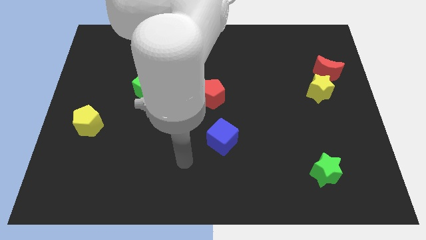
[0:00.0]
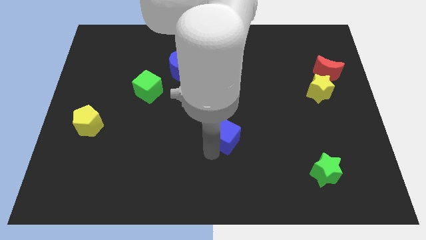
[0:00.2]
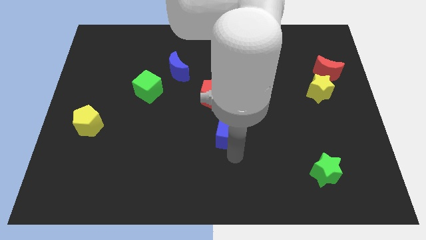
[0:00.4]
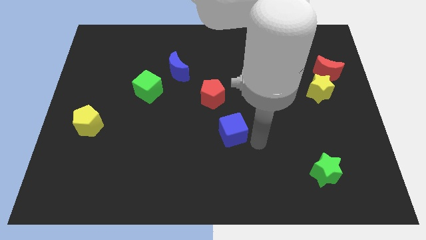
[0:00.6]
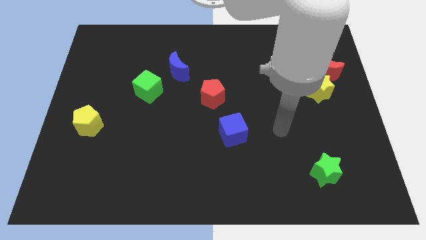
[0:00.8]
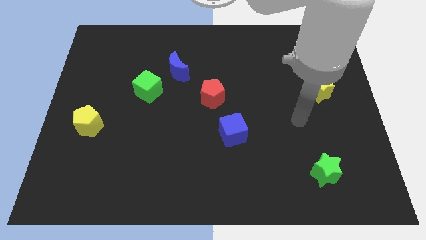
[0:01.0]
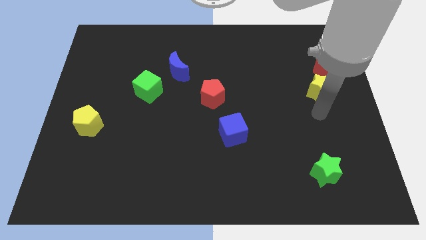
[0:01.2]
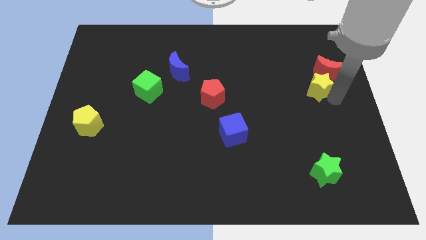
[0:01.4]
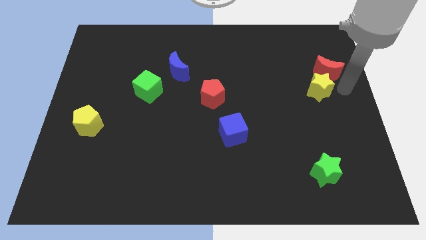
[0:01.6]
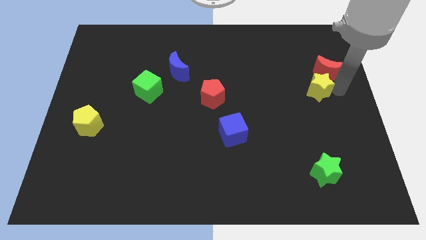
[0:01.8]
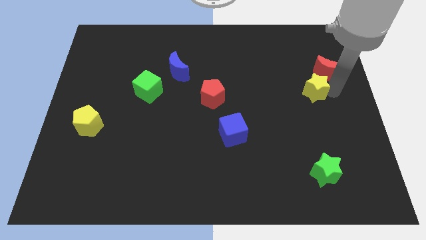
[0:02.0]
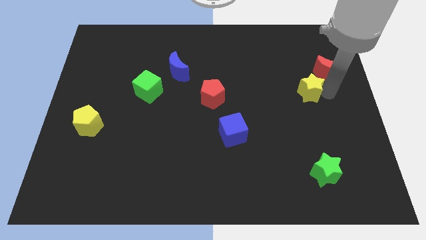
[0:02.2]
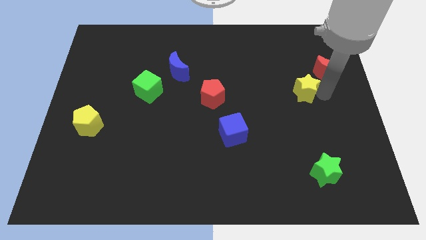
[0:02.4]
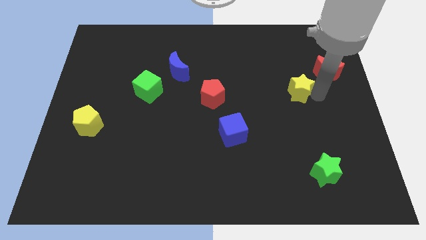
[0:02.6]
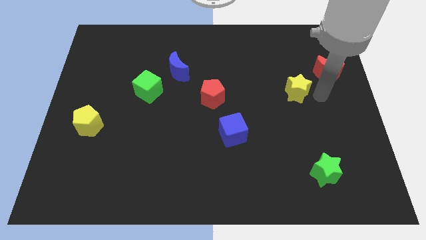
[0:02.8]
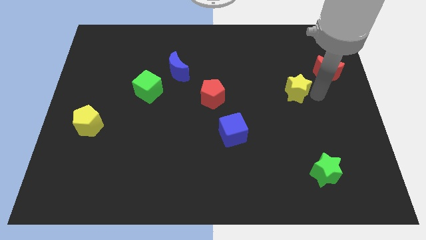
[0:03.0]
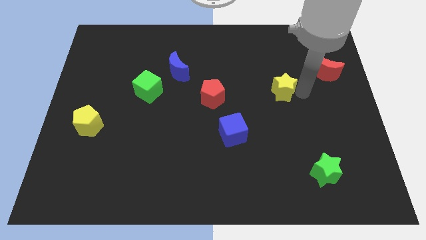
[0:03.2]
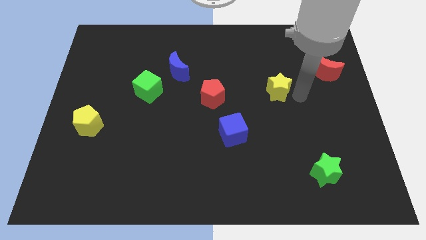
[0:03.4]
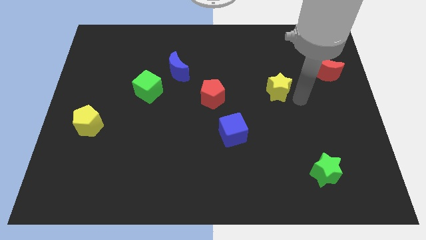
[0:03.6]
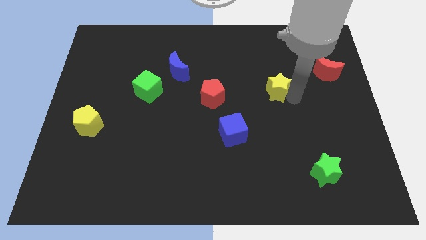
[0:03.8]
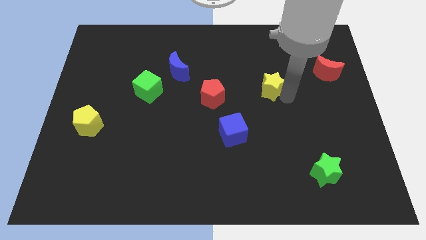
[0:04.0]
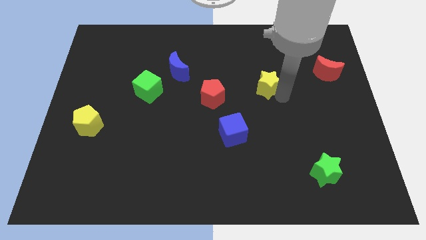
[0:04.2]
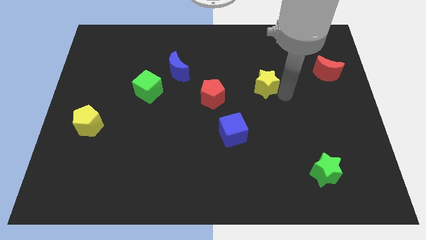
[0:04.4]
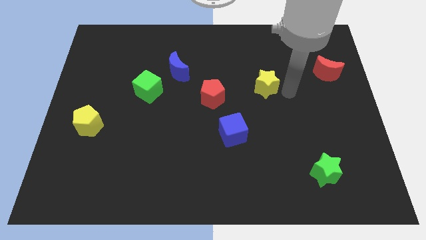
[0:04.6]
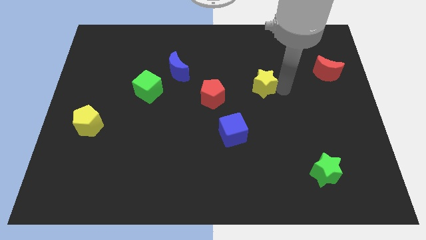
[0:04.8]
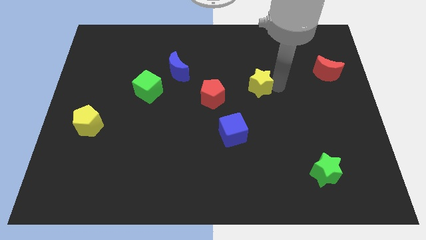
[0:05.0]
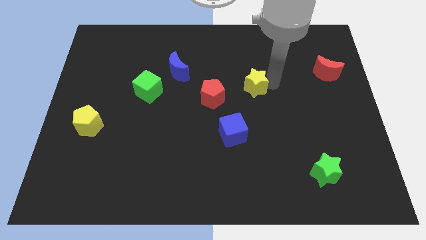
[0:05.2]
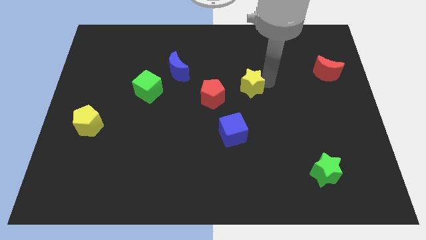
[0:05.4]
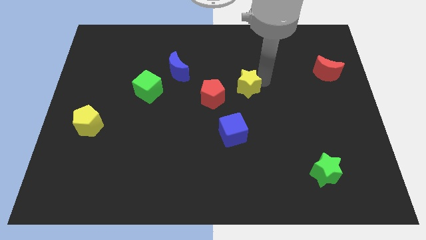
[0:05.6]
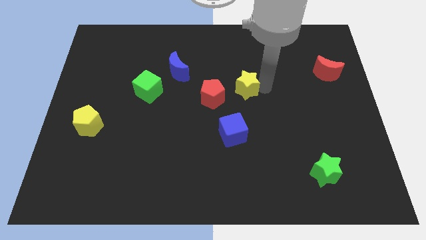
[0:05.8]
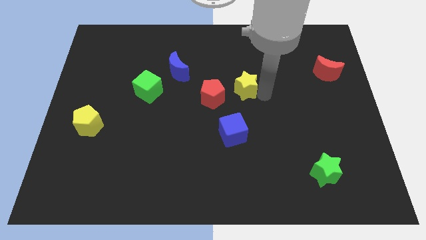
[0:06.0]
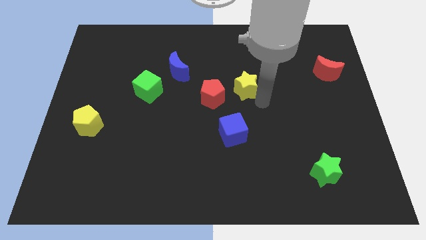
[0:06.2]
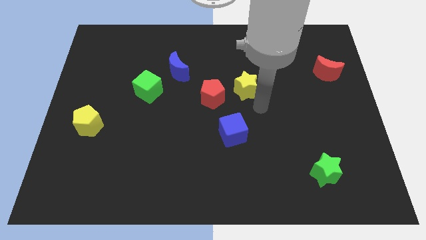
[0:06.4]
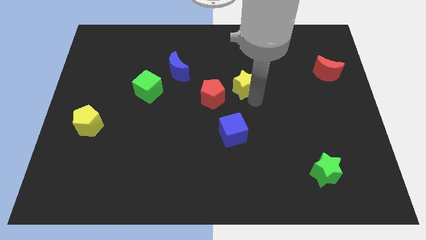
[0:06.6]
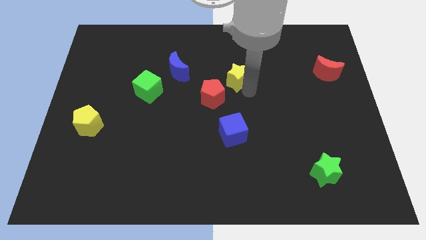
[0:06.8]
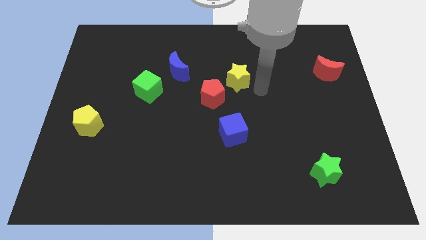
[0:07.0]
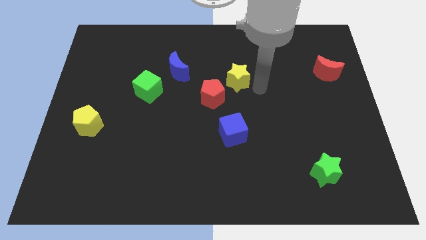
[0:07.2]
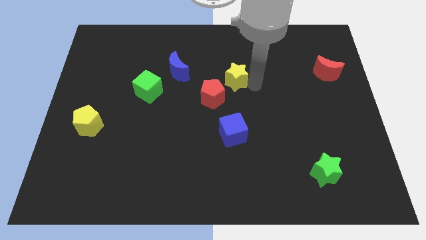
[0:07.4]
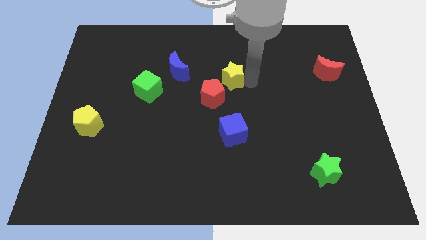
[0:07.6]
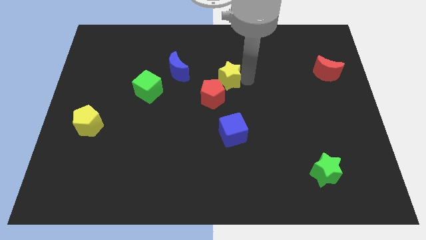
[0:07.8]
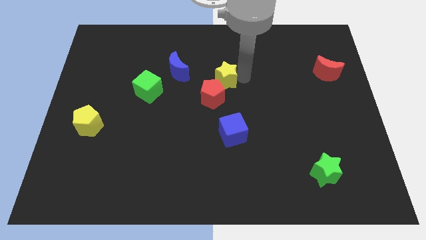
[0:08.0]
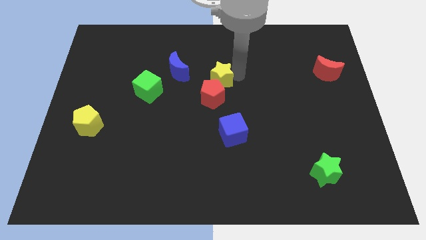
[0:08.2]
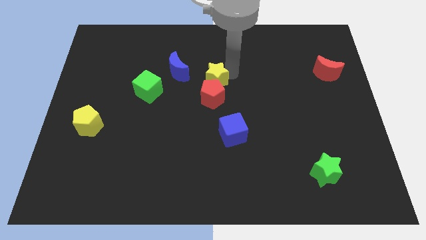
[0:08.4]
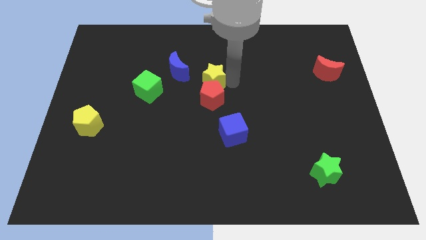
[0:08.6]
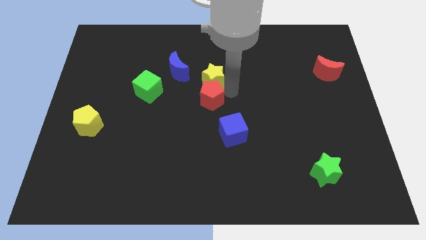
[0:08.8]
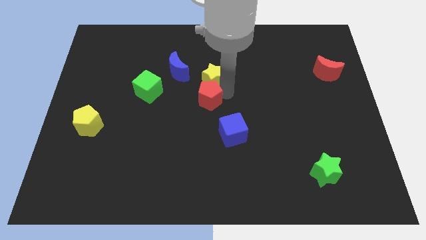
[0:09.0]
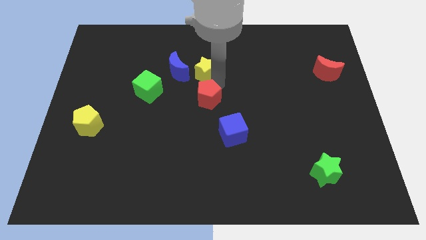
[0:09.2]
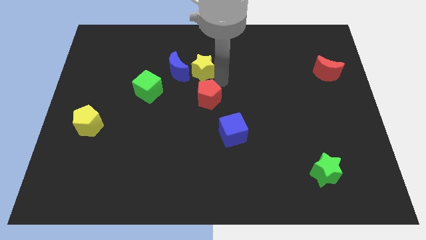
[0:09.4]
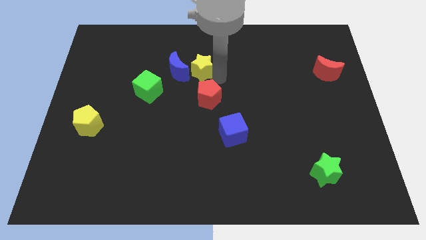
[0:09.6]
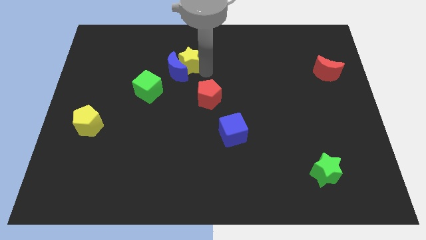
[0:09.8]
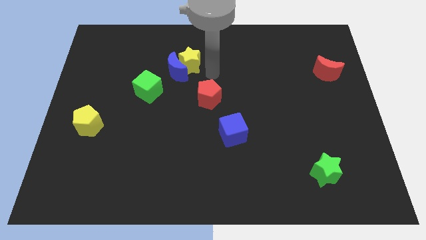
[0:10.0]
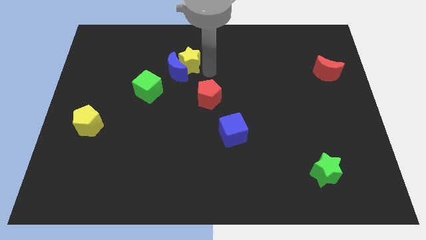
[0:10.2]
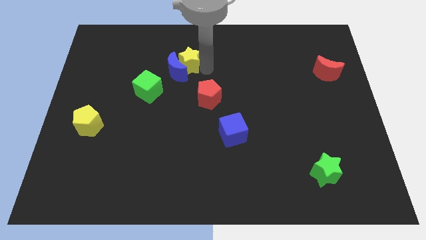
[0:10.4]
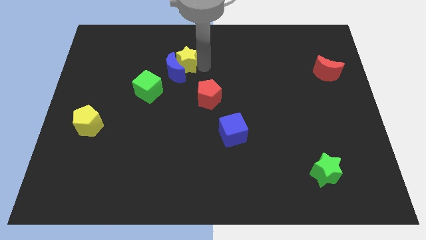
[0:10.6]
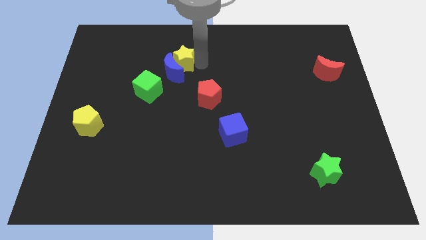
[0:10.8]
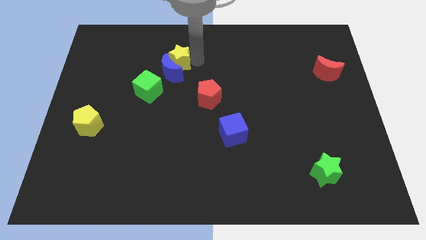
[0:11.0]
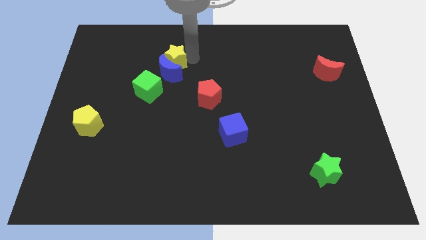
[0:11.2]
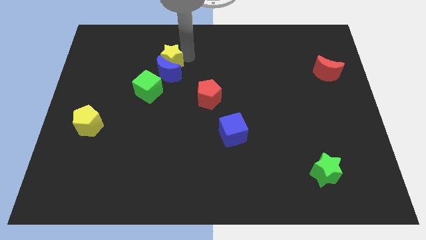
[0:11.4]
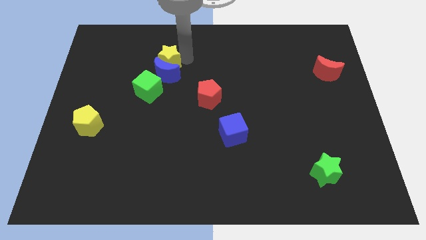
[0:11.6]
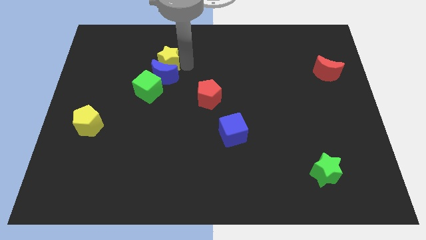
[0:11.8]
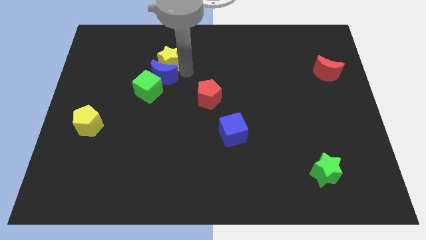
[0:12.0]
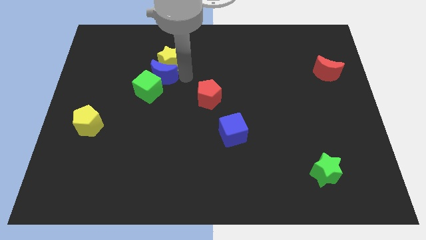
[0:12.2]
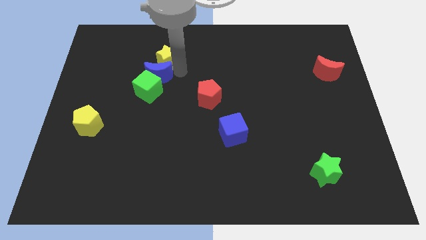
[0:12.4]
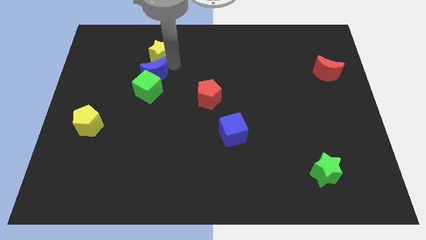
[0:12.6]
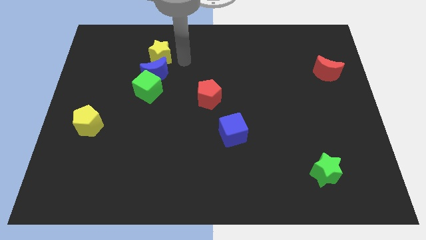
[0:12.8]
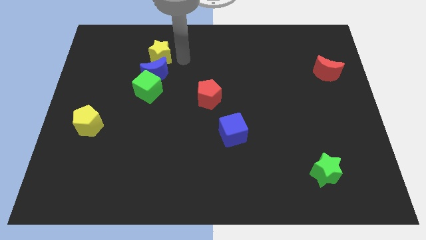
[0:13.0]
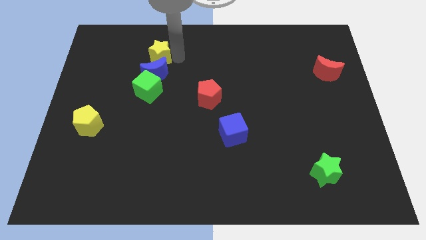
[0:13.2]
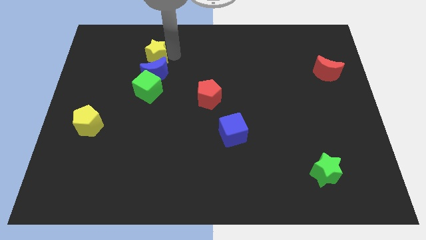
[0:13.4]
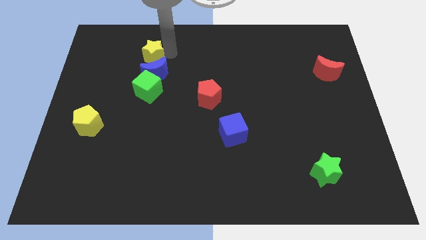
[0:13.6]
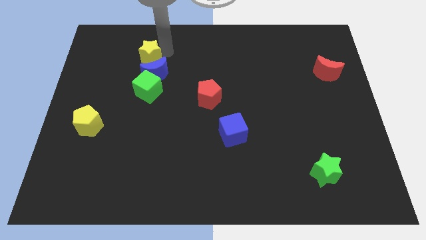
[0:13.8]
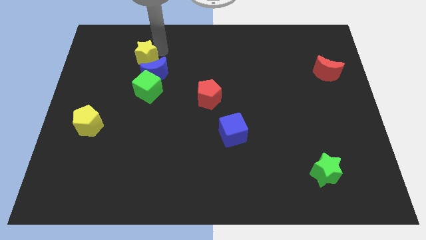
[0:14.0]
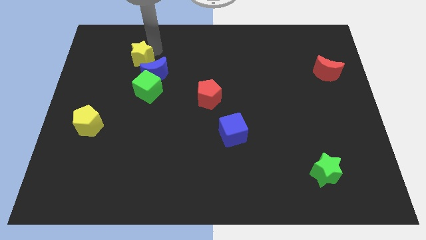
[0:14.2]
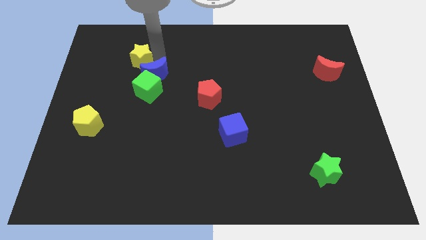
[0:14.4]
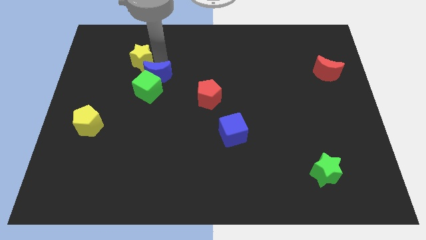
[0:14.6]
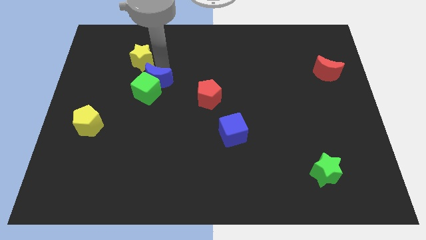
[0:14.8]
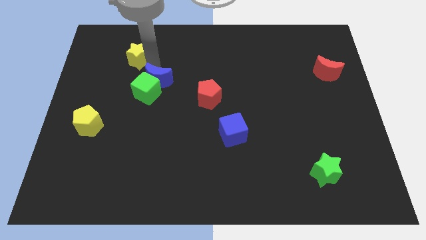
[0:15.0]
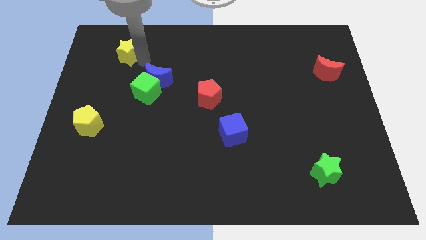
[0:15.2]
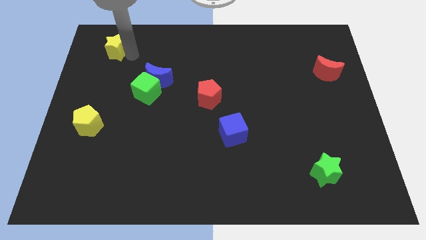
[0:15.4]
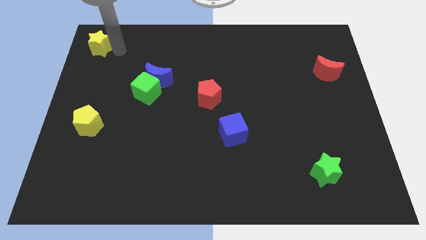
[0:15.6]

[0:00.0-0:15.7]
move the yellow star to the top left of the board
